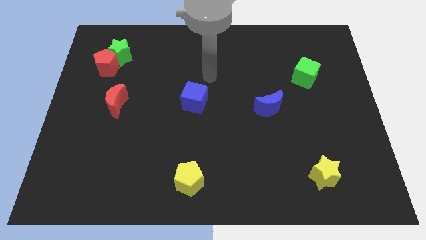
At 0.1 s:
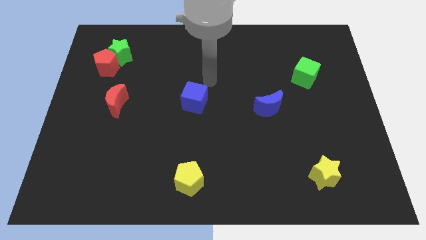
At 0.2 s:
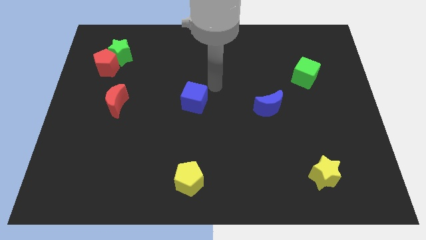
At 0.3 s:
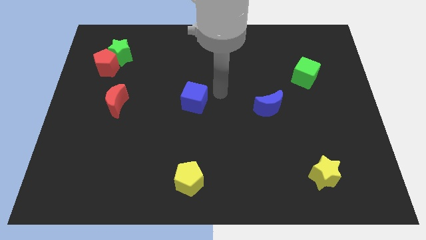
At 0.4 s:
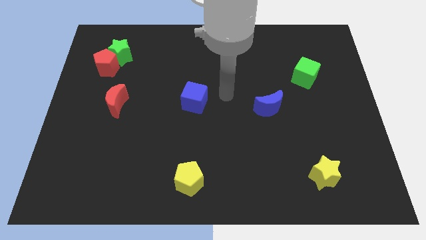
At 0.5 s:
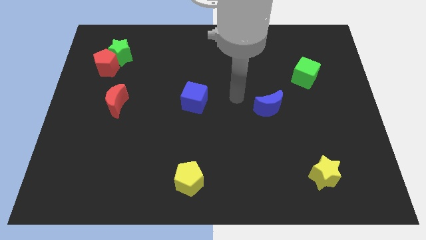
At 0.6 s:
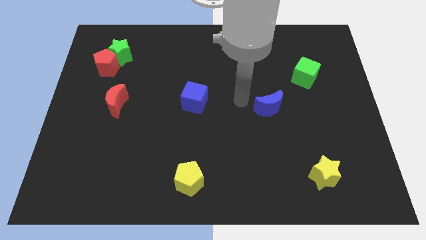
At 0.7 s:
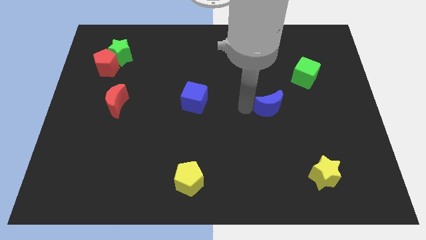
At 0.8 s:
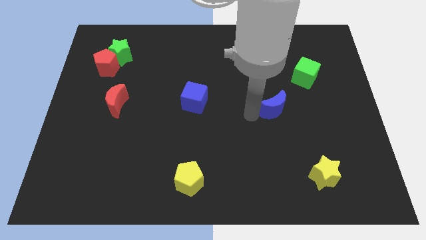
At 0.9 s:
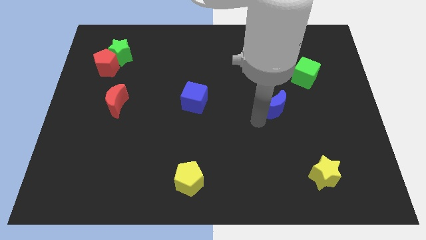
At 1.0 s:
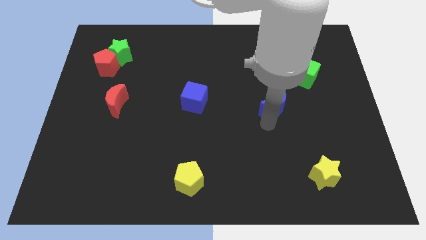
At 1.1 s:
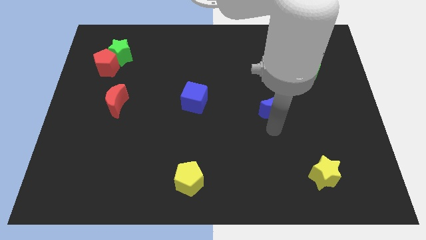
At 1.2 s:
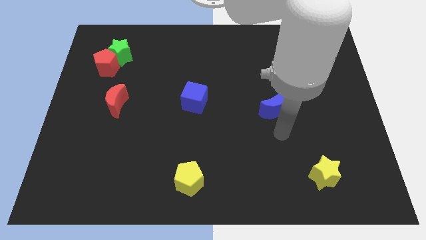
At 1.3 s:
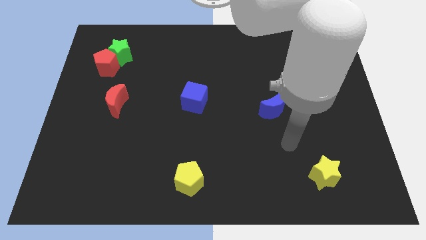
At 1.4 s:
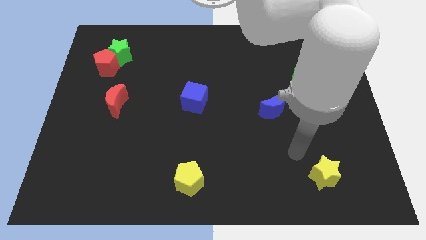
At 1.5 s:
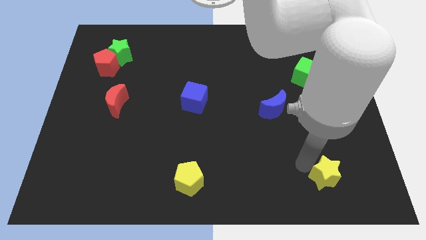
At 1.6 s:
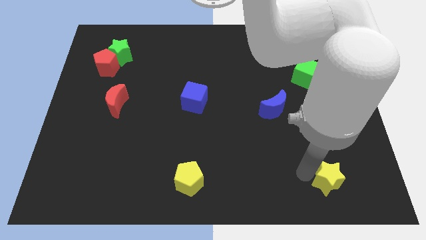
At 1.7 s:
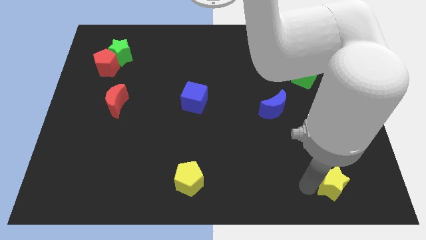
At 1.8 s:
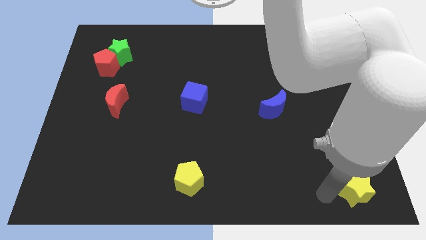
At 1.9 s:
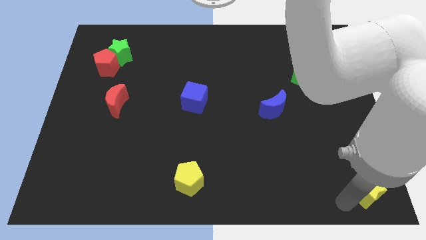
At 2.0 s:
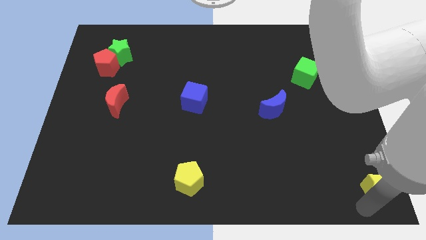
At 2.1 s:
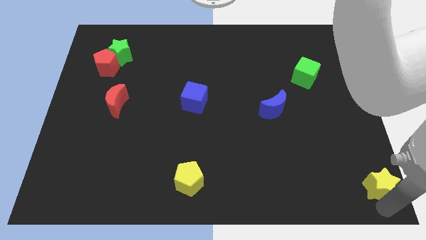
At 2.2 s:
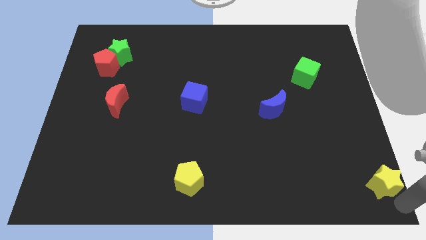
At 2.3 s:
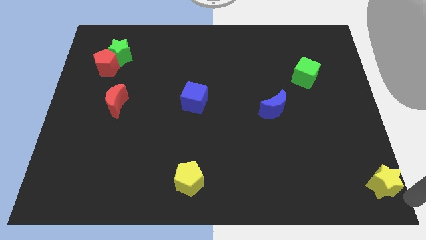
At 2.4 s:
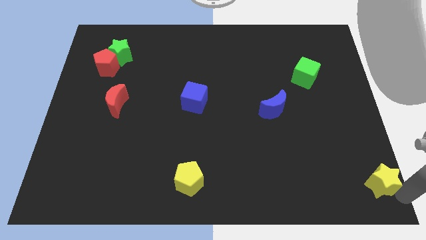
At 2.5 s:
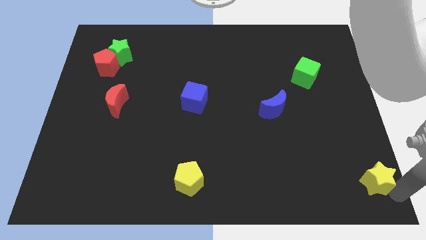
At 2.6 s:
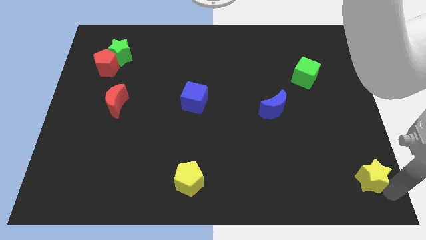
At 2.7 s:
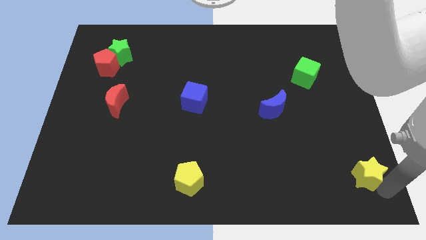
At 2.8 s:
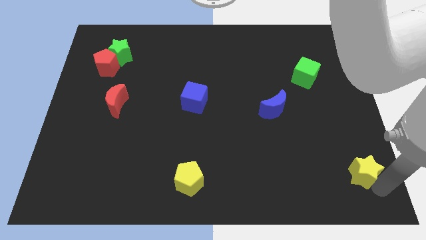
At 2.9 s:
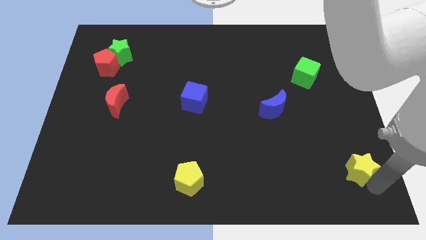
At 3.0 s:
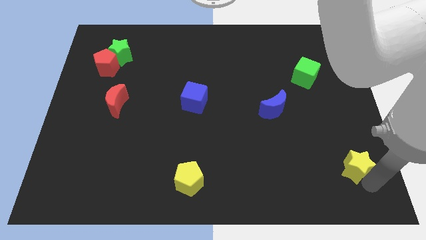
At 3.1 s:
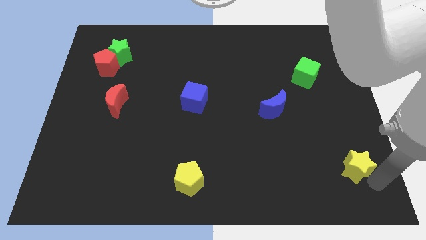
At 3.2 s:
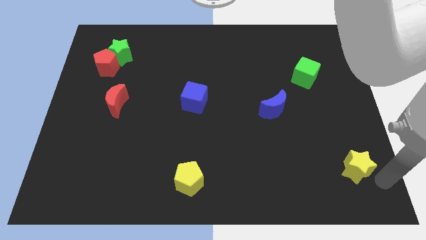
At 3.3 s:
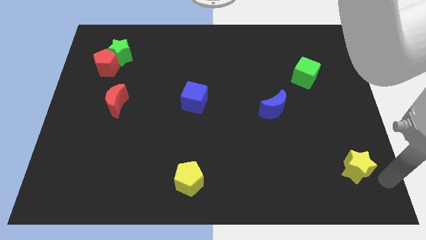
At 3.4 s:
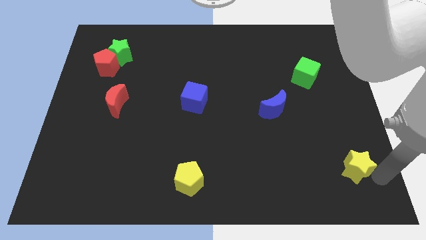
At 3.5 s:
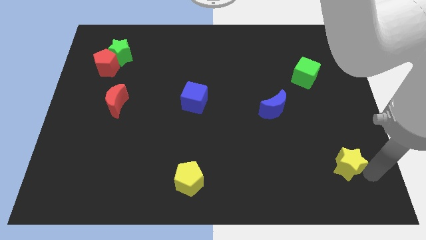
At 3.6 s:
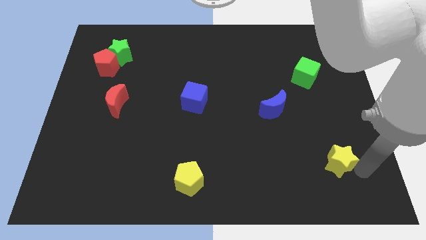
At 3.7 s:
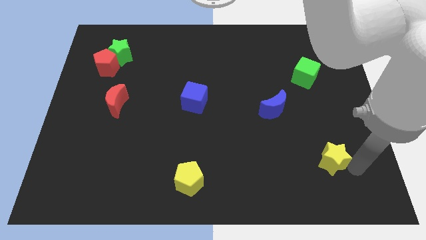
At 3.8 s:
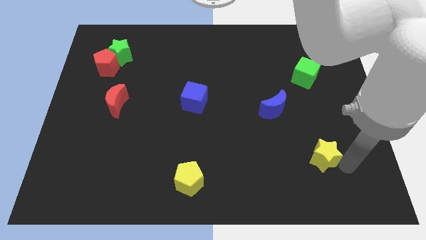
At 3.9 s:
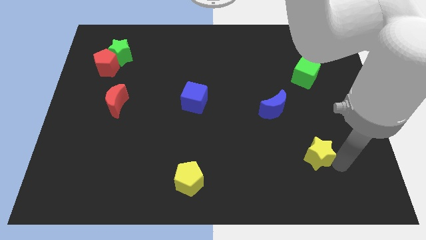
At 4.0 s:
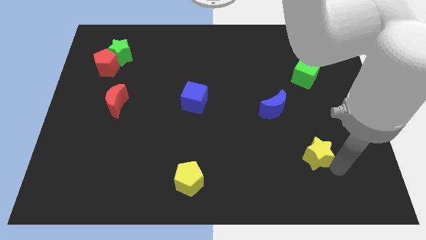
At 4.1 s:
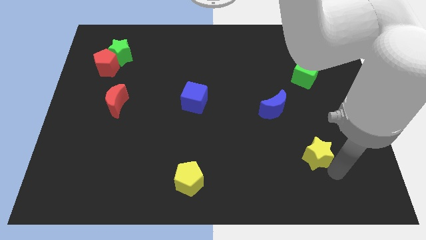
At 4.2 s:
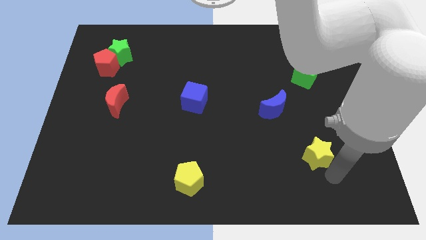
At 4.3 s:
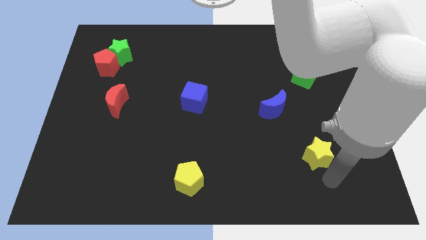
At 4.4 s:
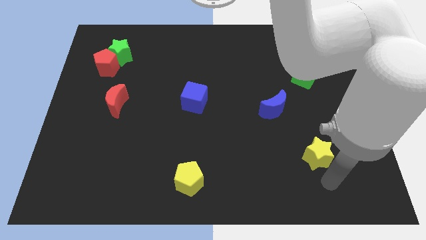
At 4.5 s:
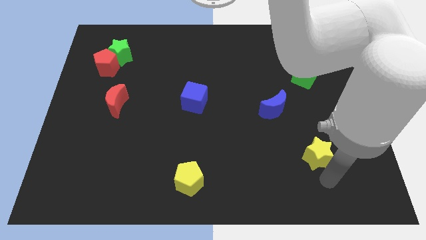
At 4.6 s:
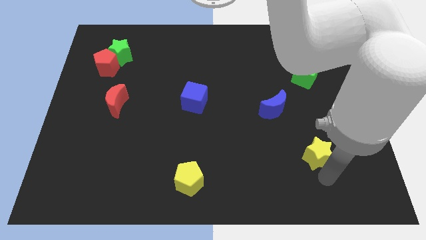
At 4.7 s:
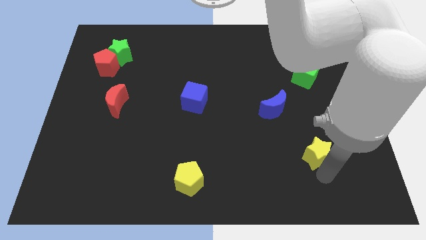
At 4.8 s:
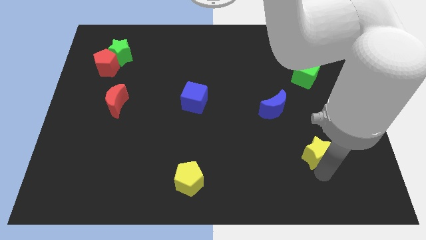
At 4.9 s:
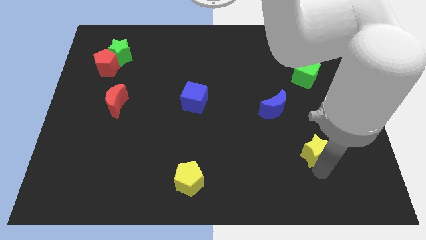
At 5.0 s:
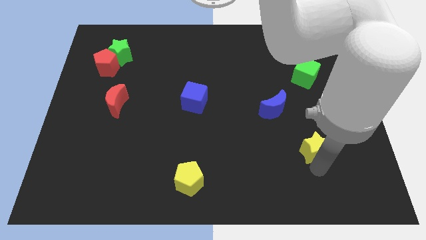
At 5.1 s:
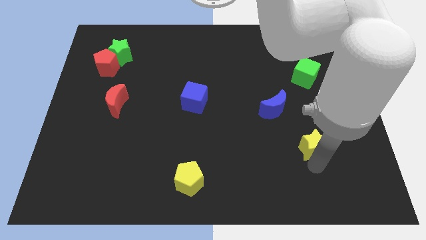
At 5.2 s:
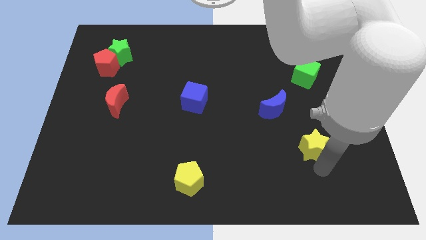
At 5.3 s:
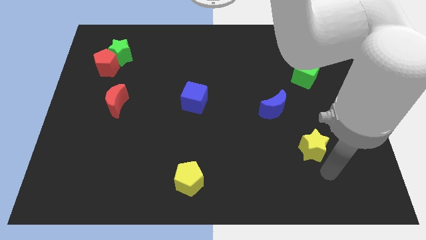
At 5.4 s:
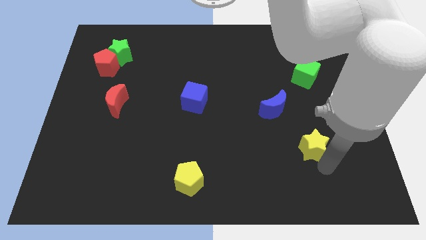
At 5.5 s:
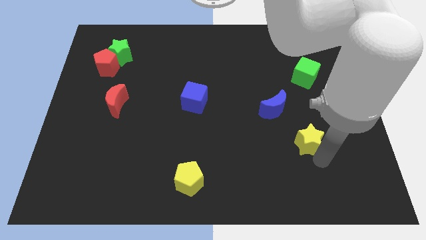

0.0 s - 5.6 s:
move the yellow star to the bottom right side of the blue moon

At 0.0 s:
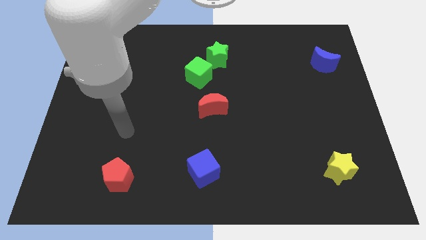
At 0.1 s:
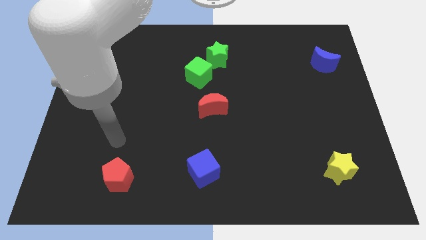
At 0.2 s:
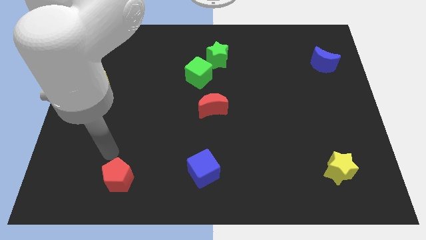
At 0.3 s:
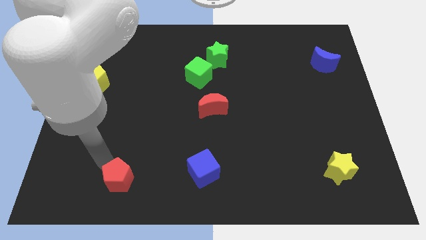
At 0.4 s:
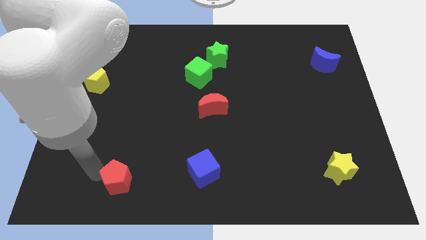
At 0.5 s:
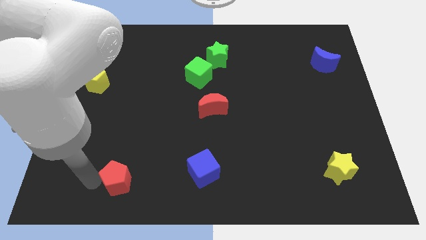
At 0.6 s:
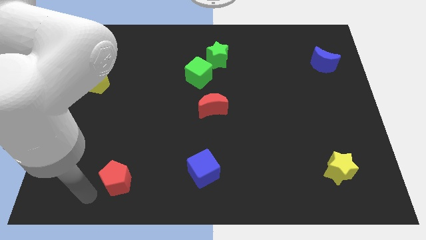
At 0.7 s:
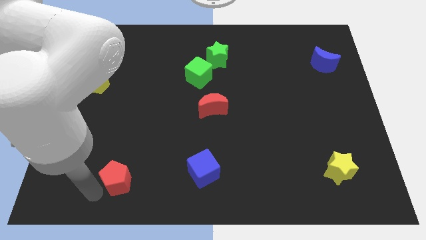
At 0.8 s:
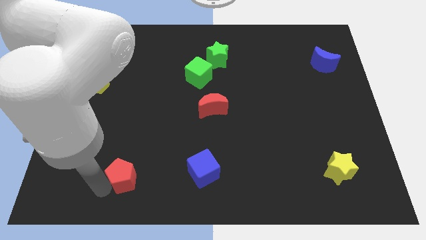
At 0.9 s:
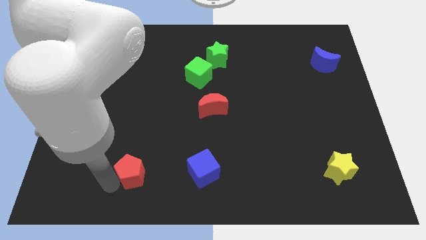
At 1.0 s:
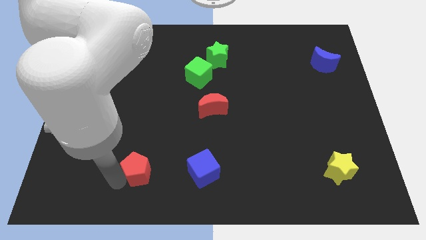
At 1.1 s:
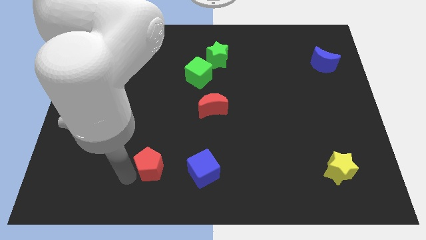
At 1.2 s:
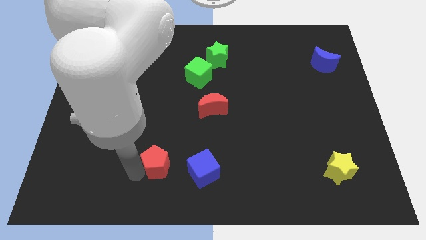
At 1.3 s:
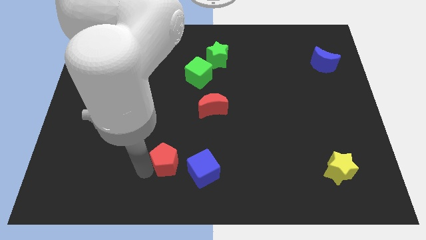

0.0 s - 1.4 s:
put the red pentagon to the top left of the blue cube
